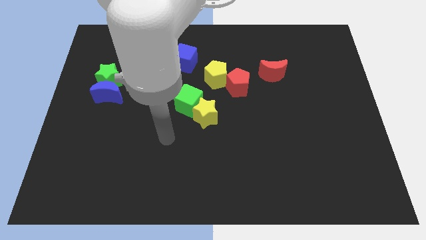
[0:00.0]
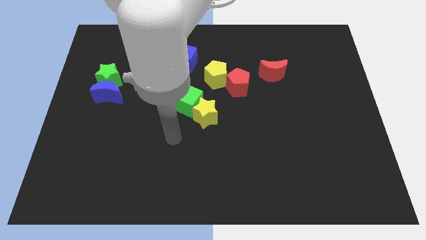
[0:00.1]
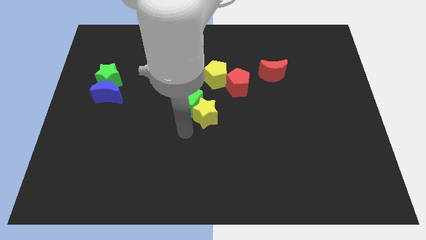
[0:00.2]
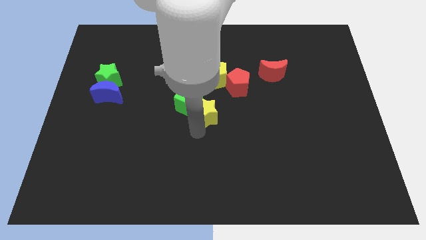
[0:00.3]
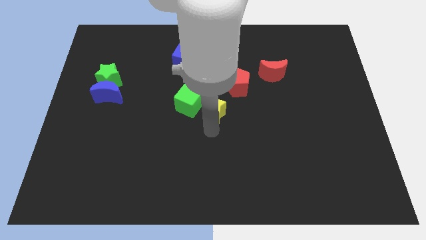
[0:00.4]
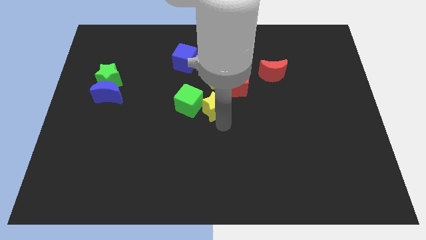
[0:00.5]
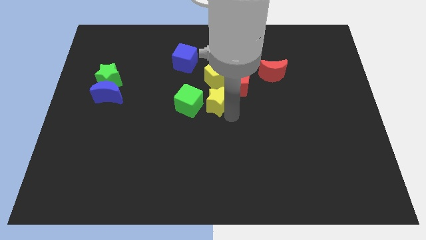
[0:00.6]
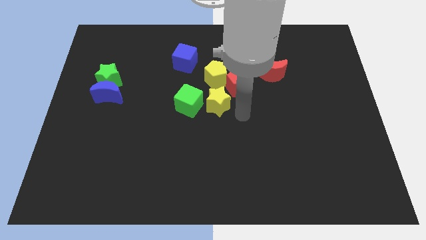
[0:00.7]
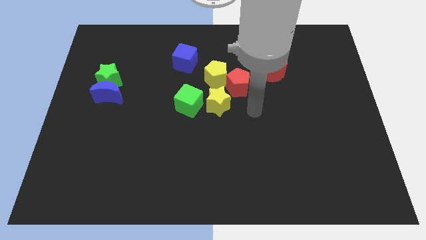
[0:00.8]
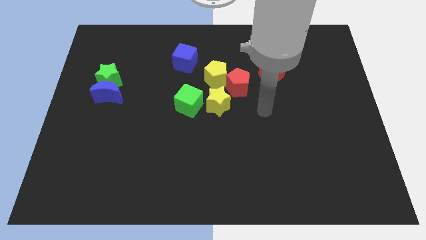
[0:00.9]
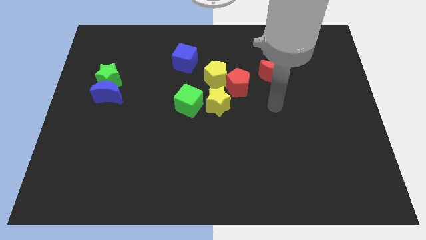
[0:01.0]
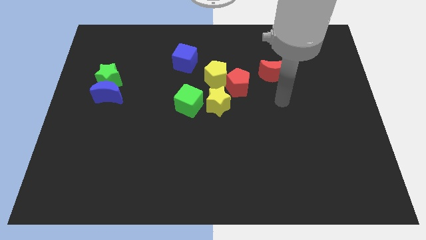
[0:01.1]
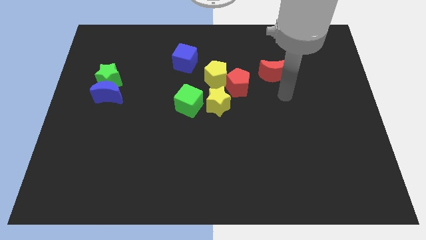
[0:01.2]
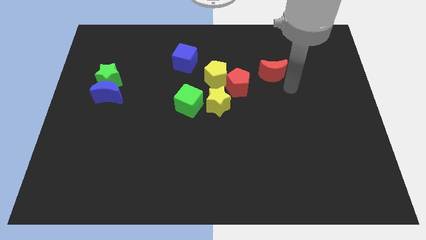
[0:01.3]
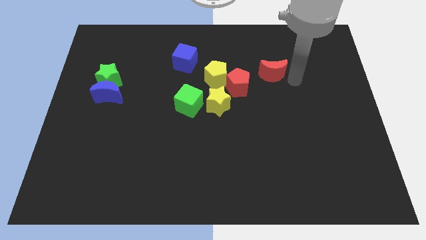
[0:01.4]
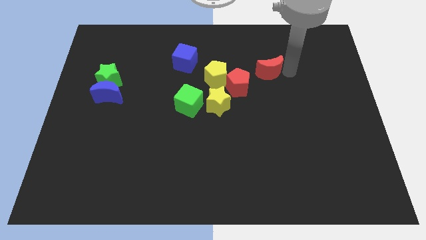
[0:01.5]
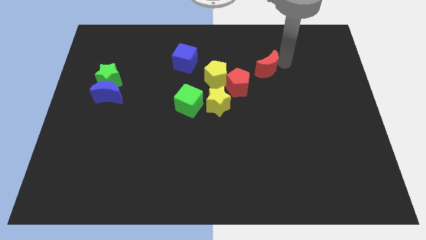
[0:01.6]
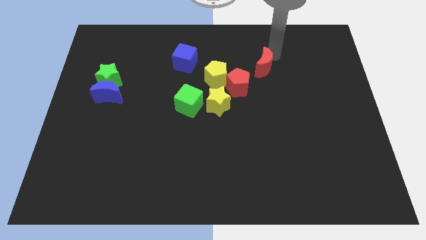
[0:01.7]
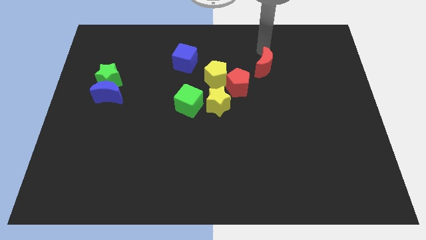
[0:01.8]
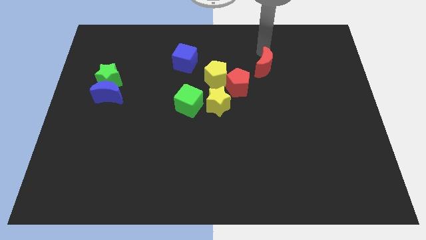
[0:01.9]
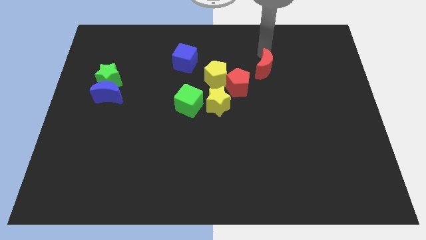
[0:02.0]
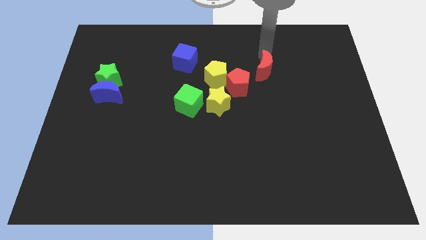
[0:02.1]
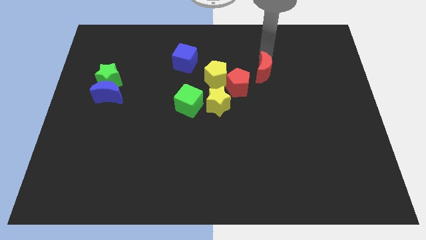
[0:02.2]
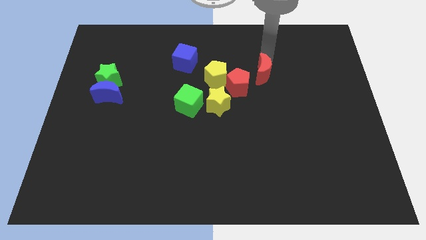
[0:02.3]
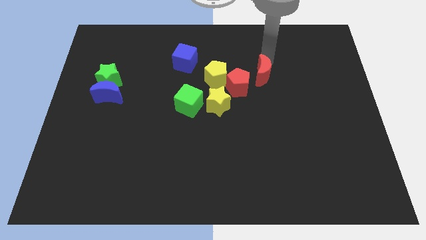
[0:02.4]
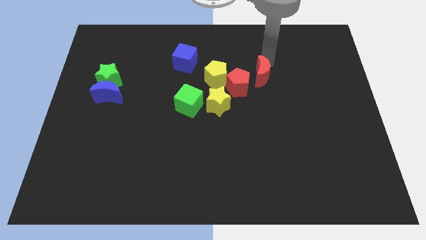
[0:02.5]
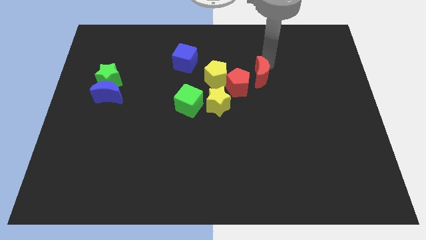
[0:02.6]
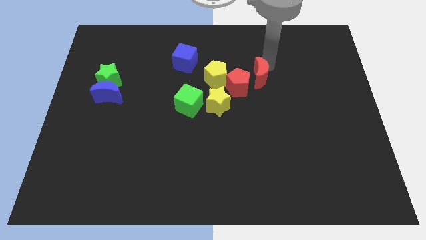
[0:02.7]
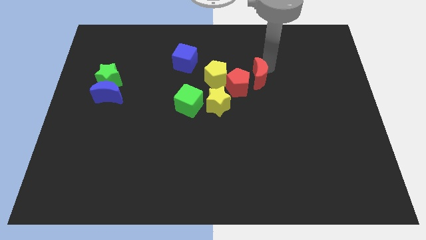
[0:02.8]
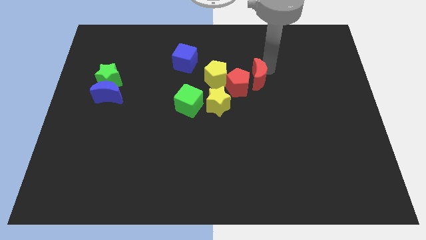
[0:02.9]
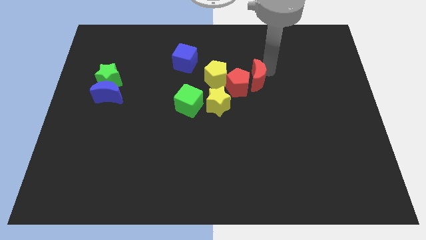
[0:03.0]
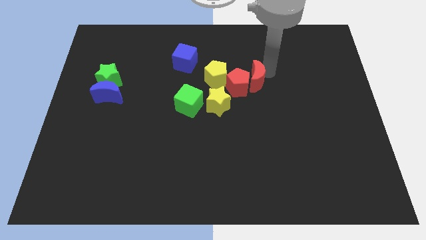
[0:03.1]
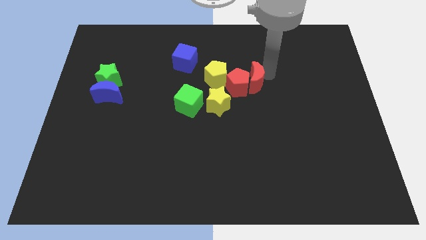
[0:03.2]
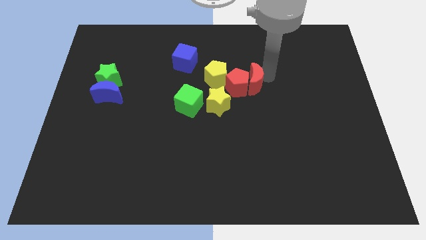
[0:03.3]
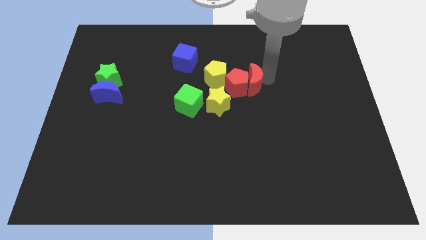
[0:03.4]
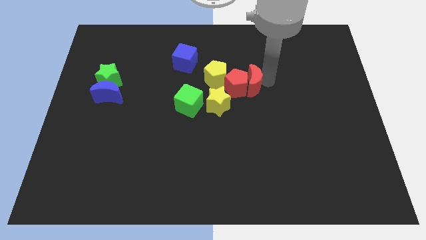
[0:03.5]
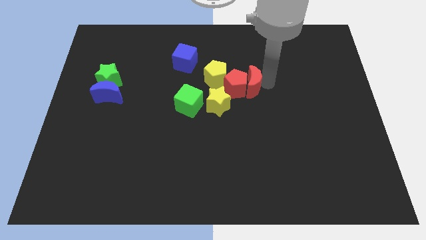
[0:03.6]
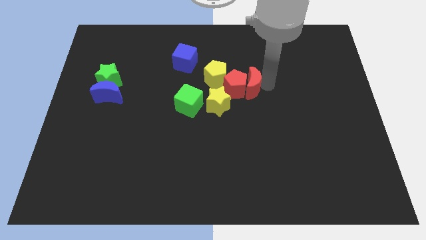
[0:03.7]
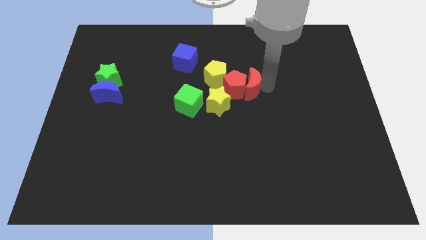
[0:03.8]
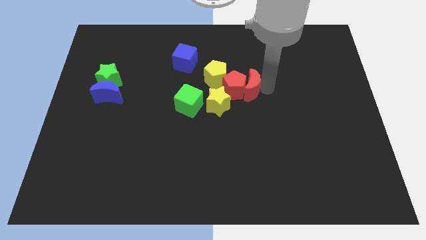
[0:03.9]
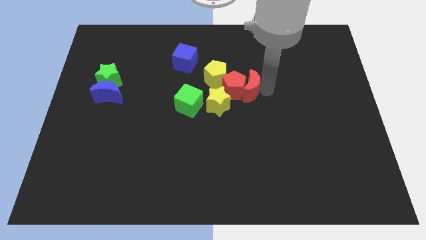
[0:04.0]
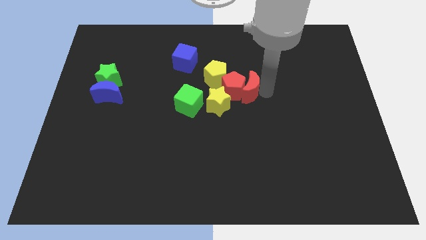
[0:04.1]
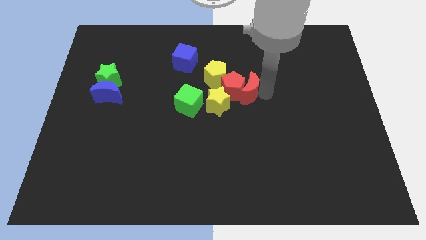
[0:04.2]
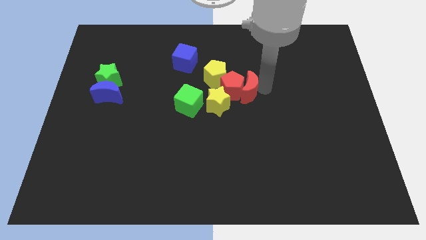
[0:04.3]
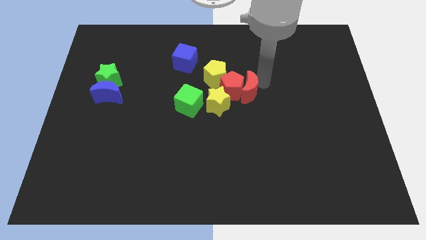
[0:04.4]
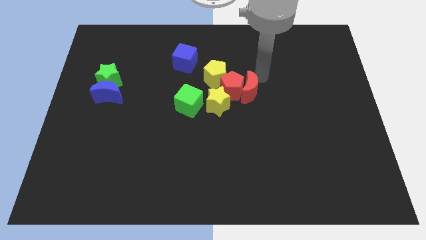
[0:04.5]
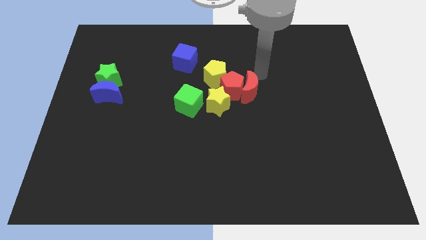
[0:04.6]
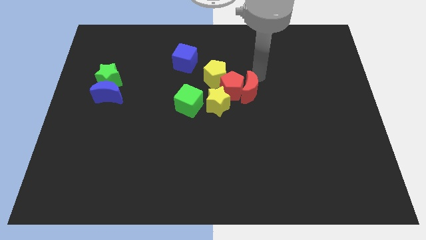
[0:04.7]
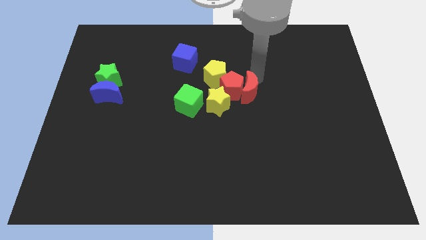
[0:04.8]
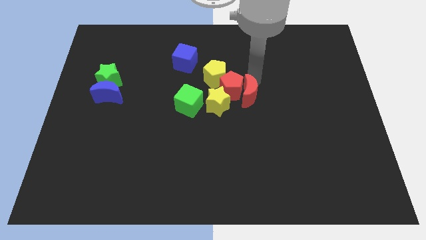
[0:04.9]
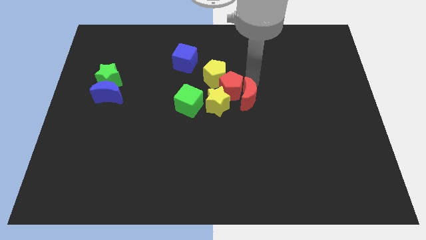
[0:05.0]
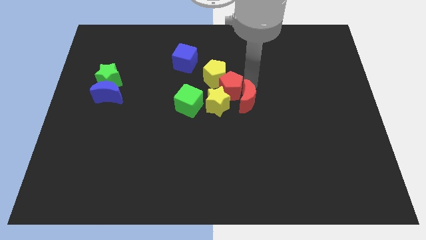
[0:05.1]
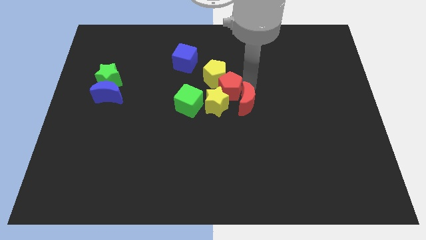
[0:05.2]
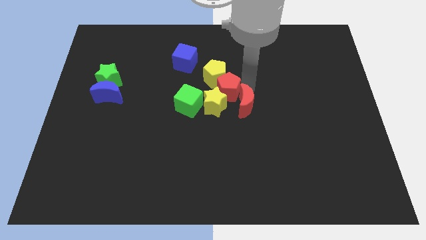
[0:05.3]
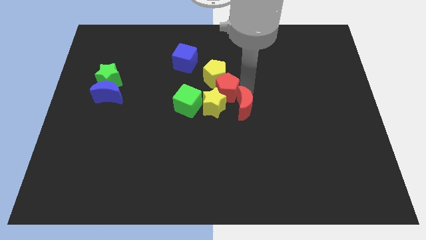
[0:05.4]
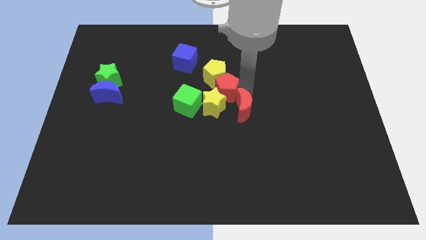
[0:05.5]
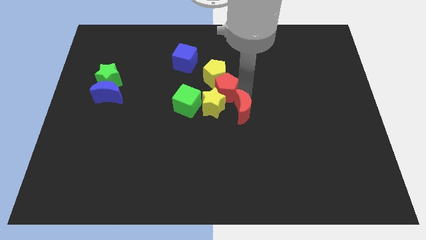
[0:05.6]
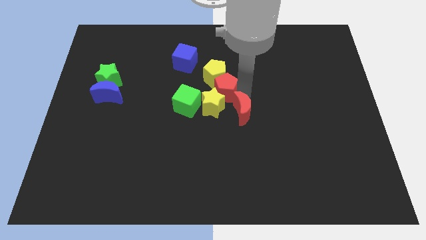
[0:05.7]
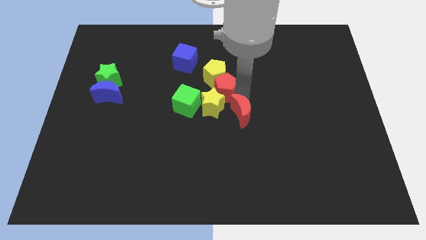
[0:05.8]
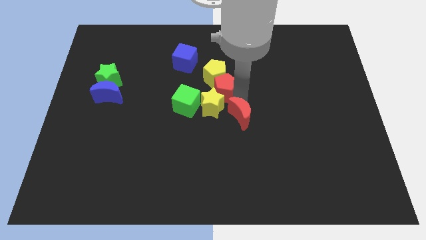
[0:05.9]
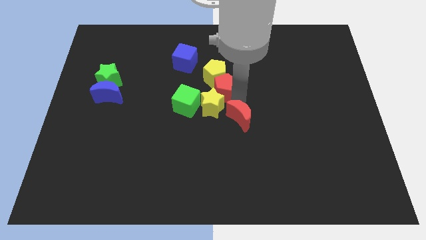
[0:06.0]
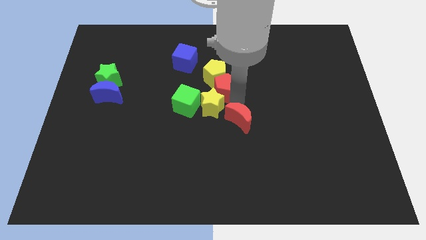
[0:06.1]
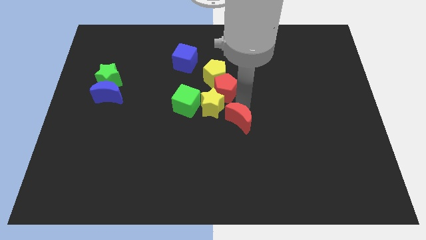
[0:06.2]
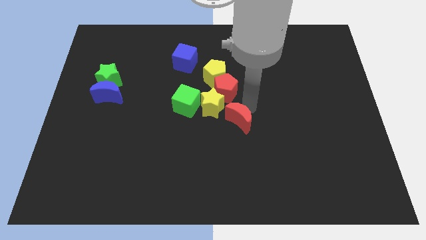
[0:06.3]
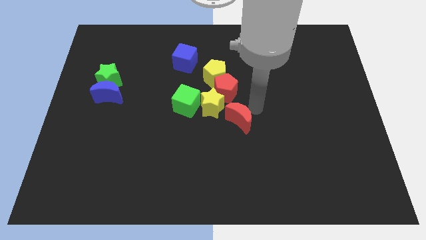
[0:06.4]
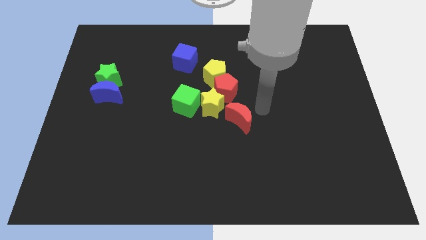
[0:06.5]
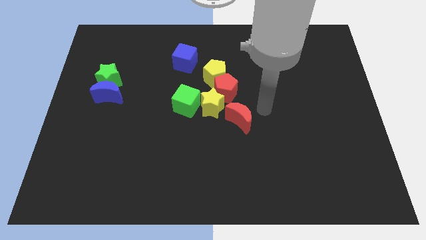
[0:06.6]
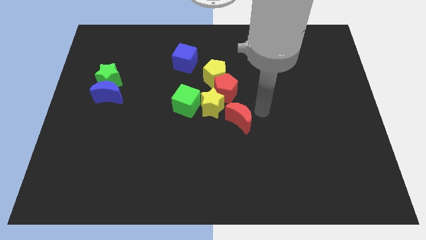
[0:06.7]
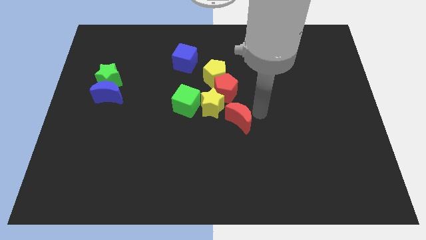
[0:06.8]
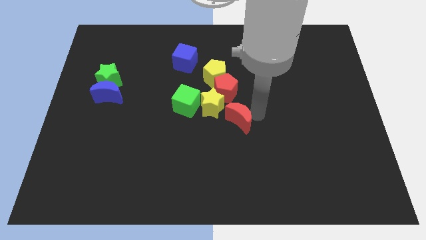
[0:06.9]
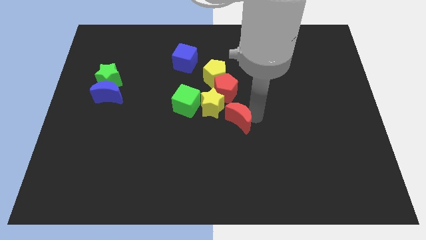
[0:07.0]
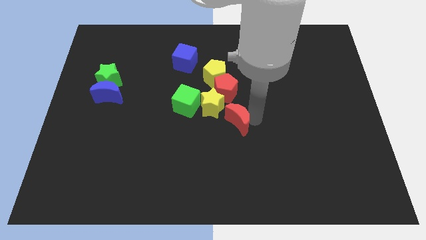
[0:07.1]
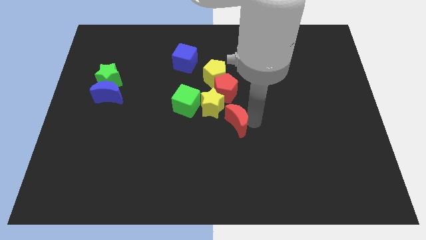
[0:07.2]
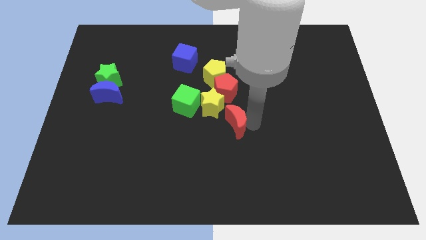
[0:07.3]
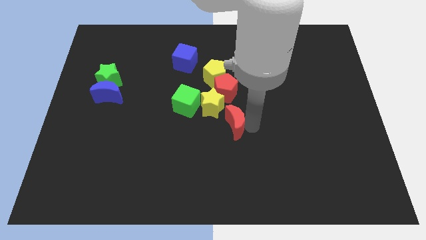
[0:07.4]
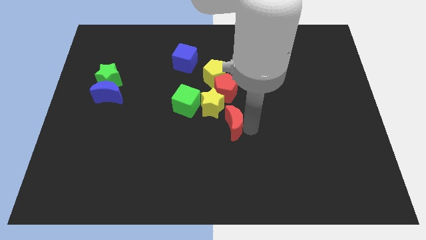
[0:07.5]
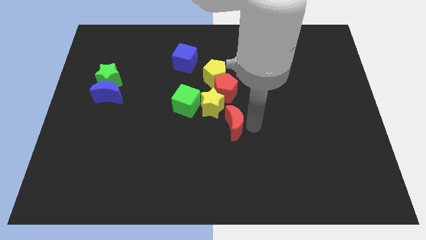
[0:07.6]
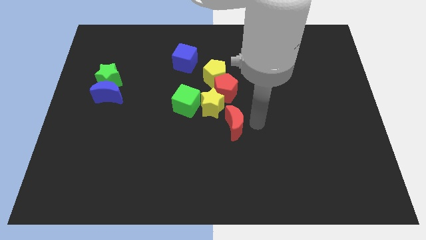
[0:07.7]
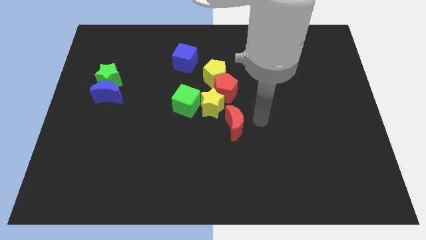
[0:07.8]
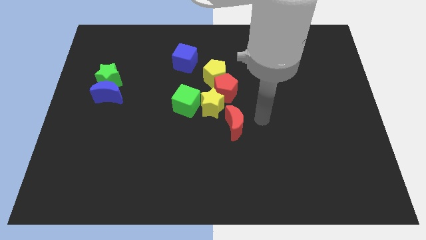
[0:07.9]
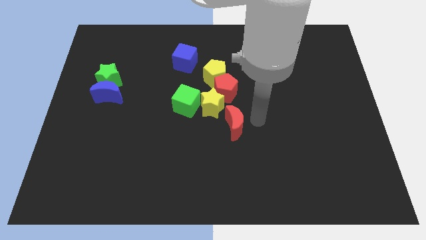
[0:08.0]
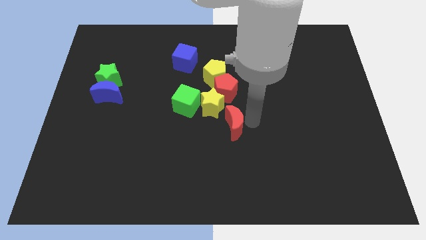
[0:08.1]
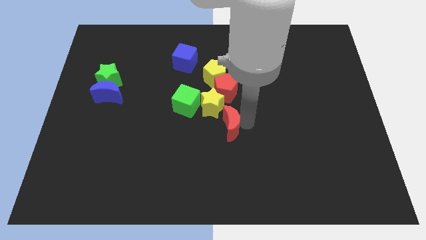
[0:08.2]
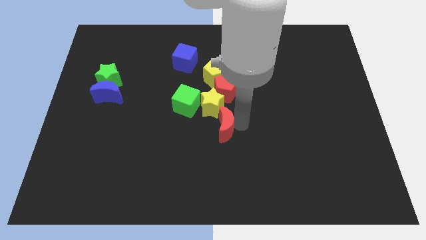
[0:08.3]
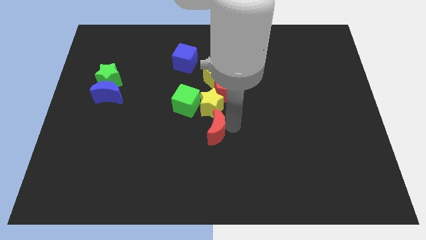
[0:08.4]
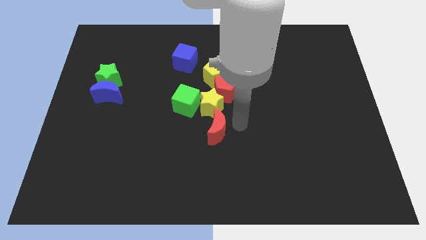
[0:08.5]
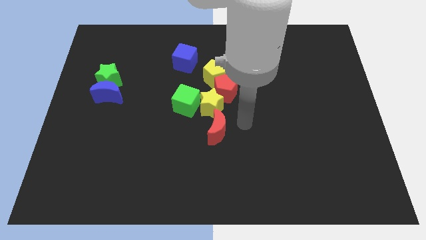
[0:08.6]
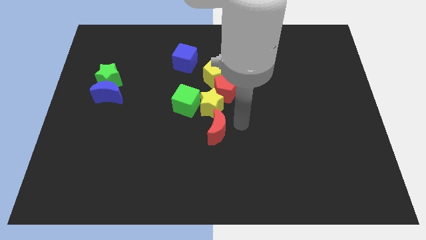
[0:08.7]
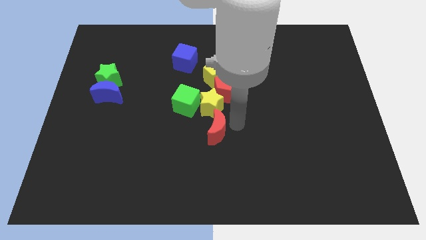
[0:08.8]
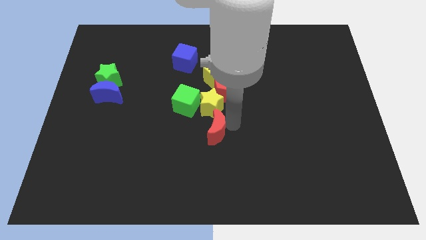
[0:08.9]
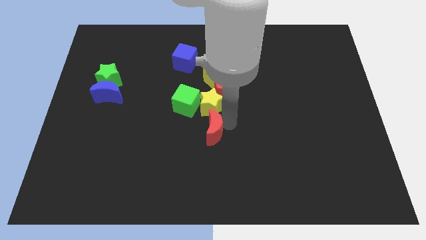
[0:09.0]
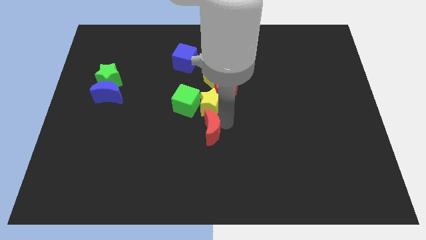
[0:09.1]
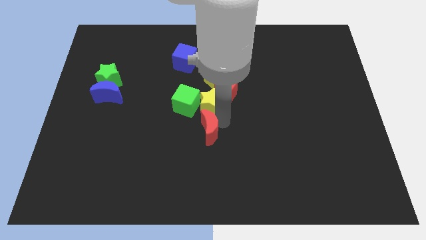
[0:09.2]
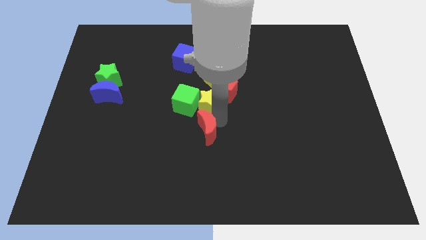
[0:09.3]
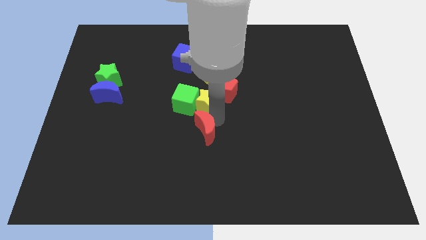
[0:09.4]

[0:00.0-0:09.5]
slide the red moon to the bottom side of the green cube
